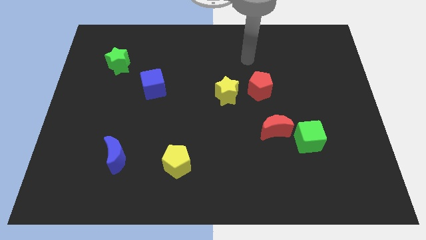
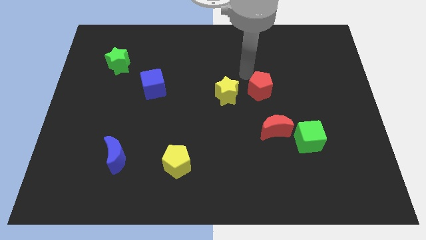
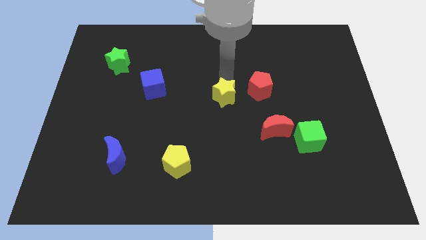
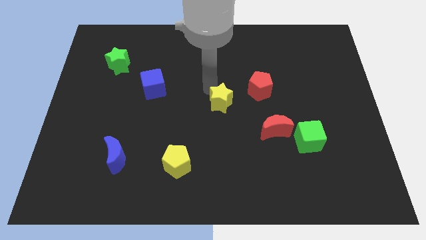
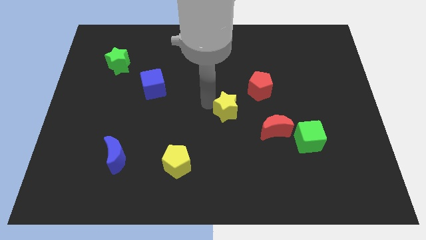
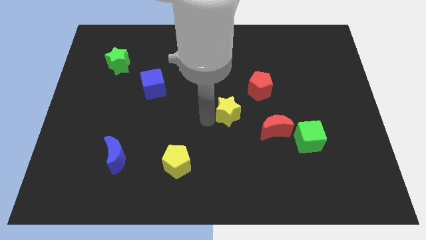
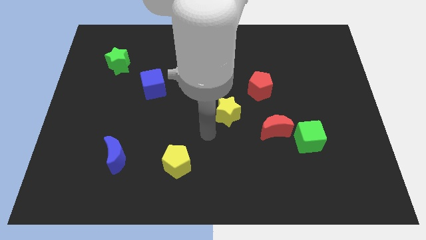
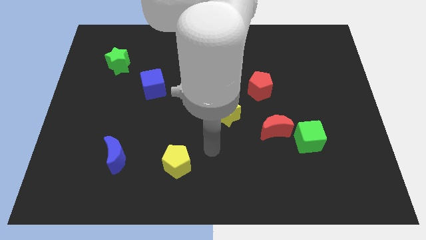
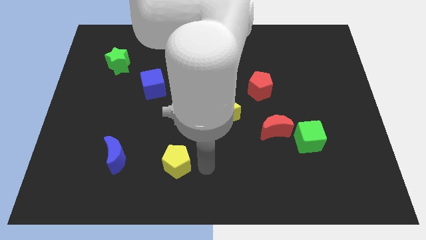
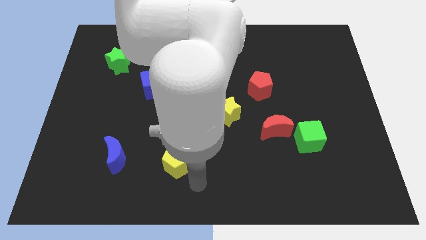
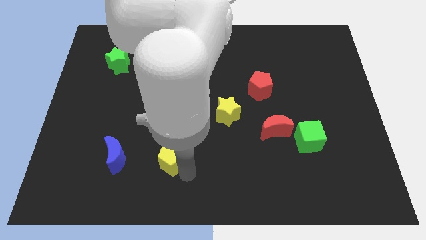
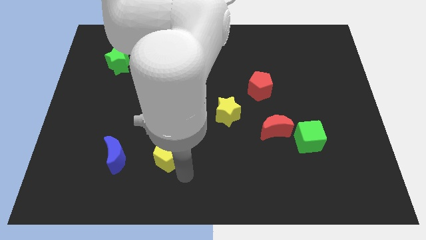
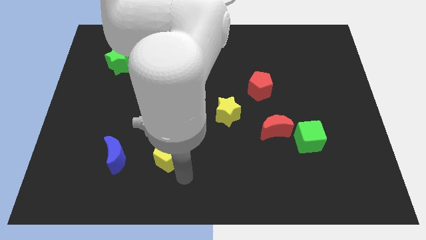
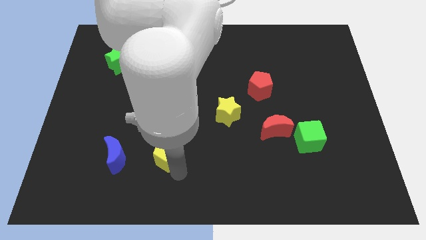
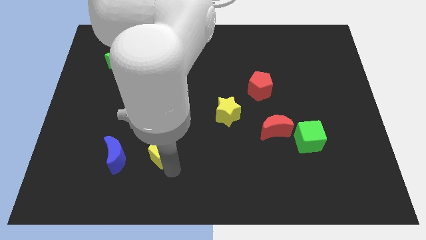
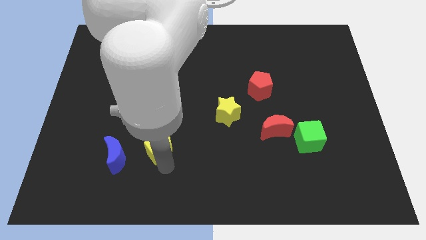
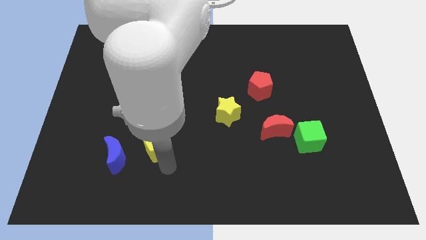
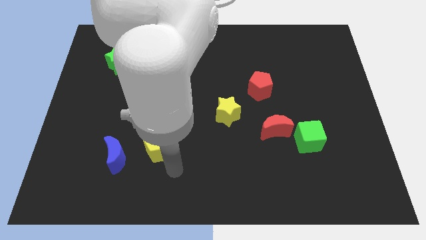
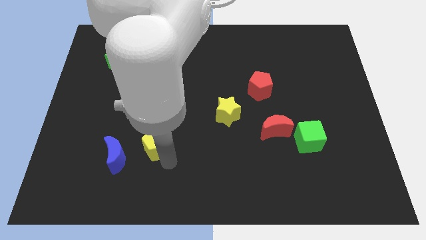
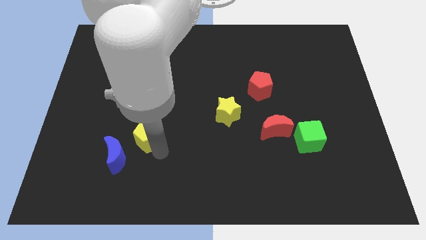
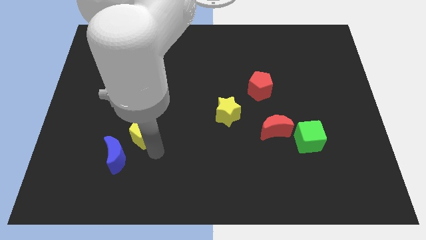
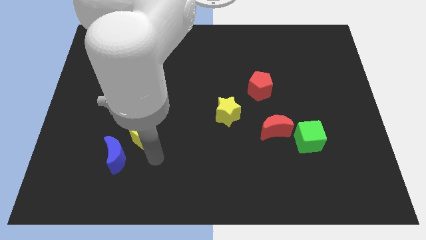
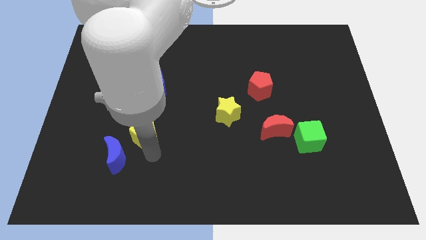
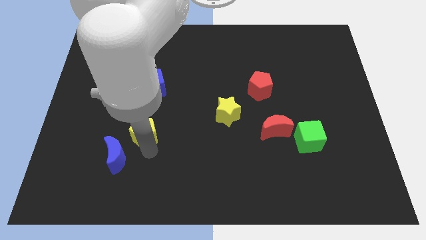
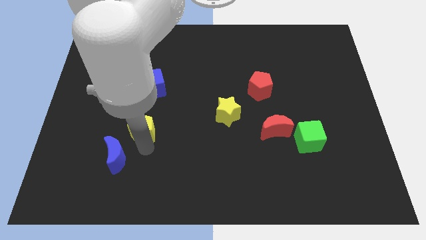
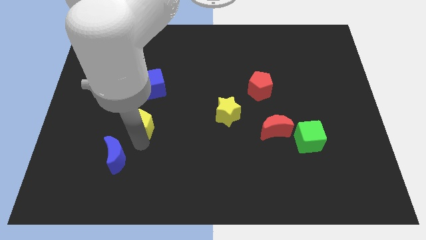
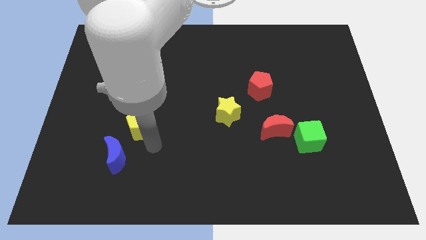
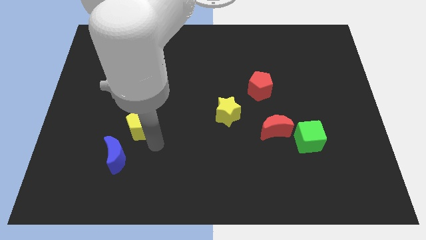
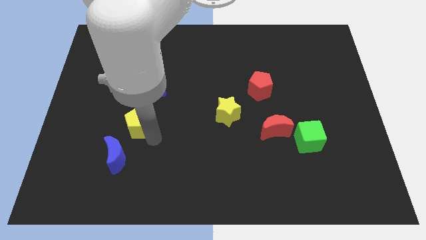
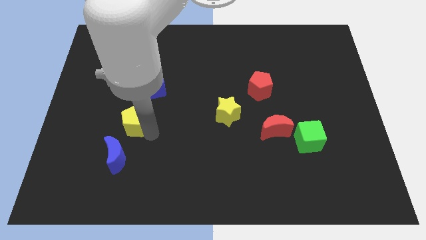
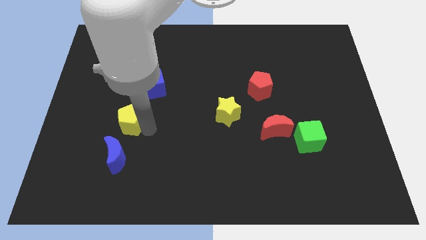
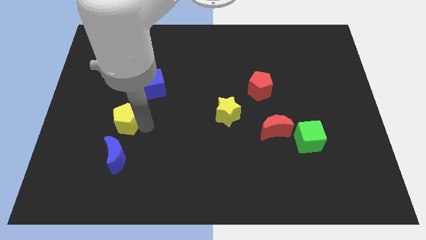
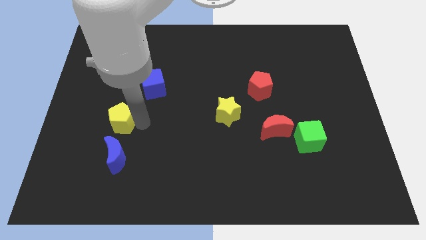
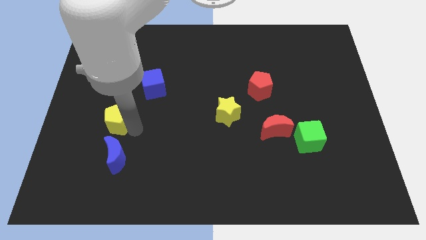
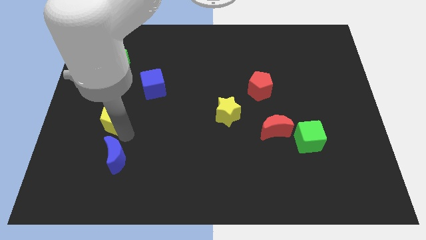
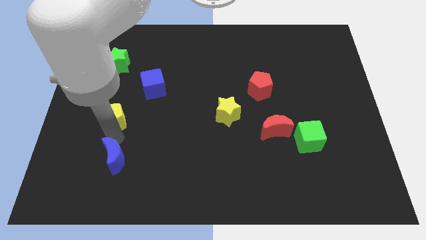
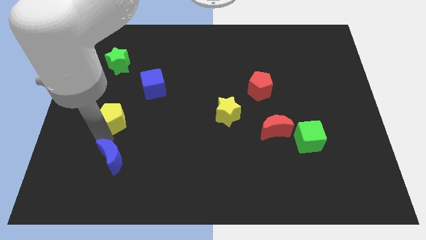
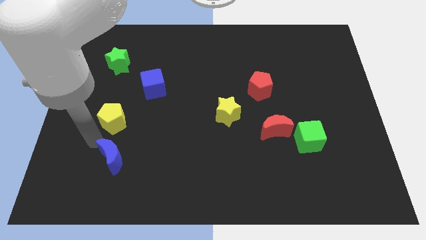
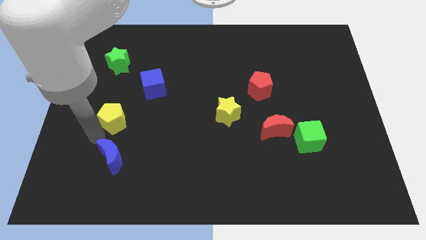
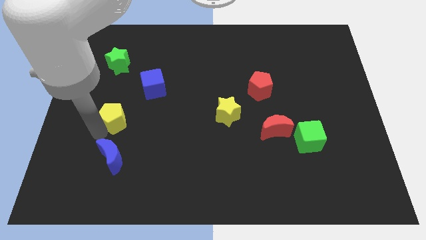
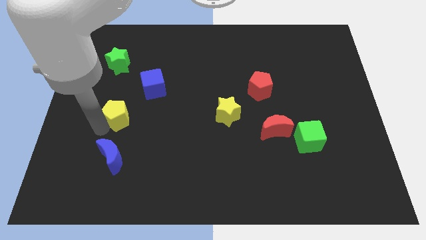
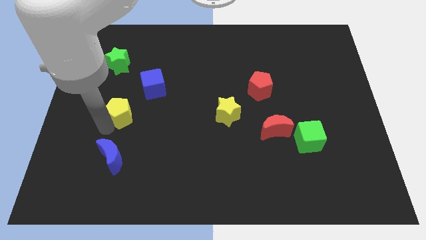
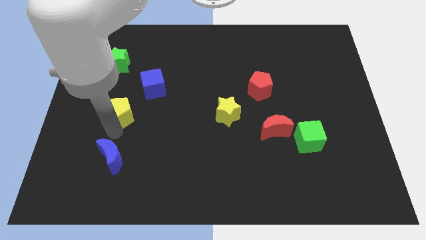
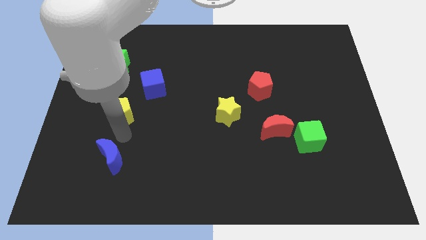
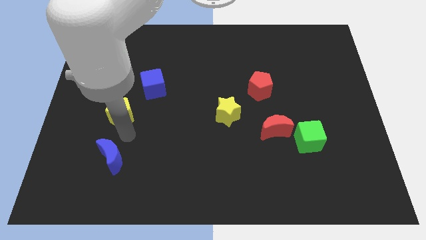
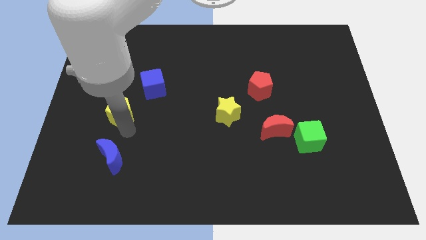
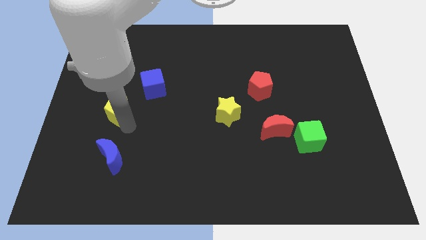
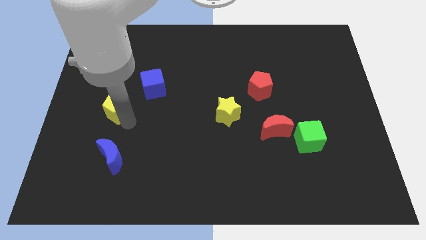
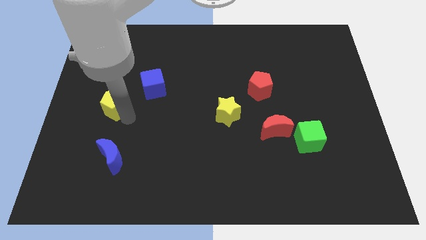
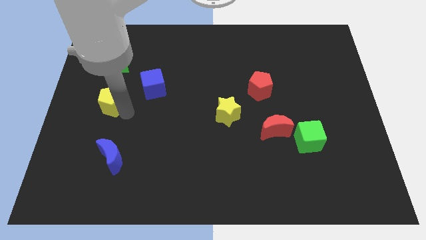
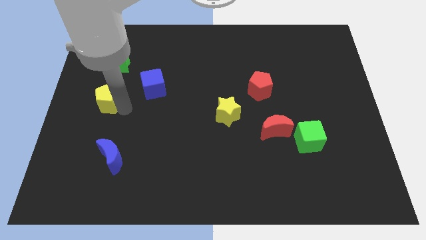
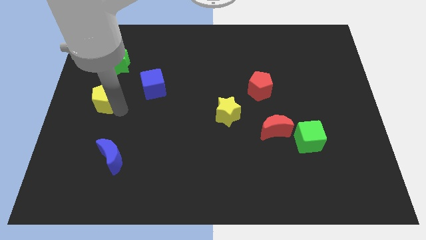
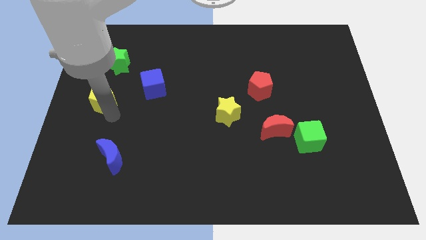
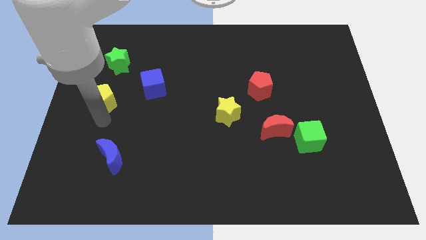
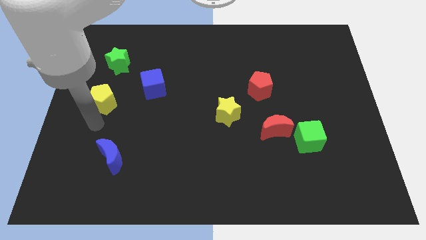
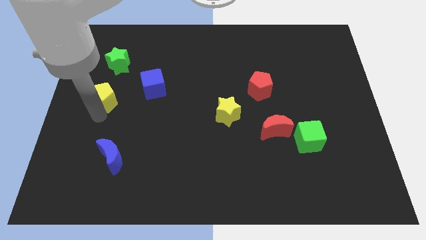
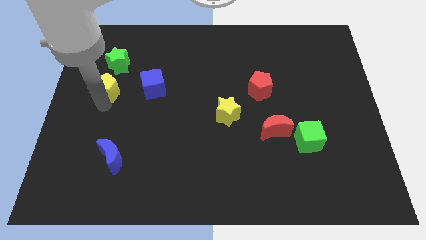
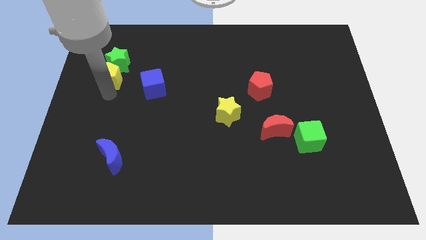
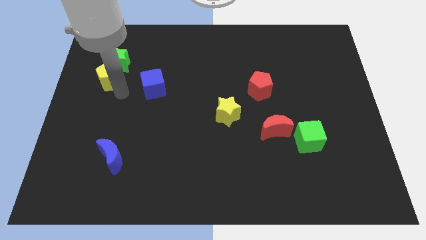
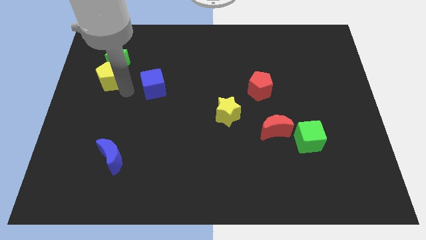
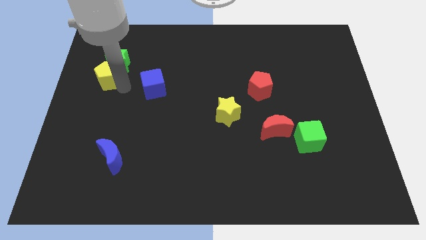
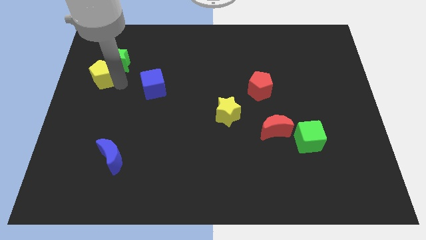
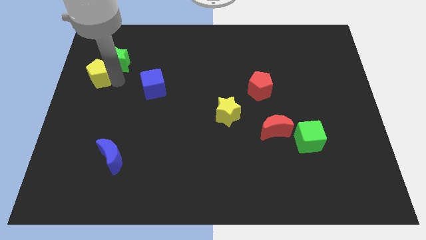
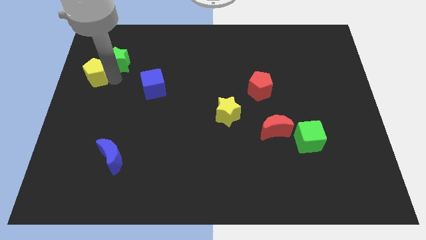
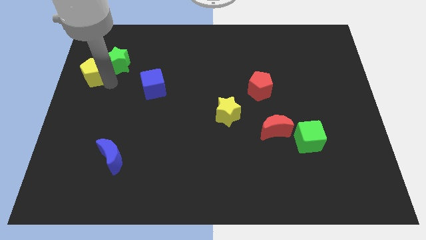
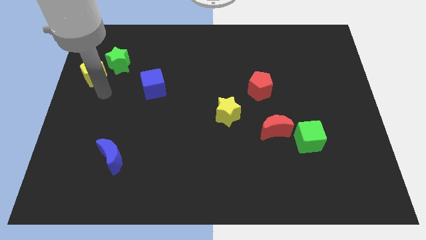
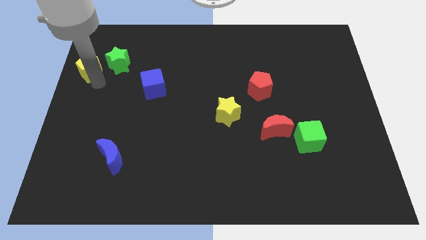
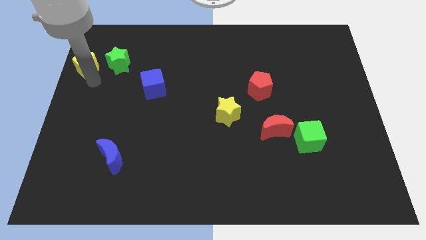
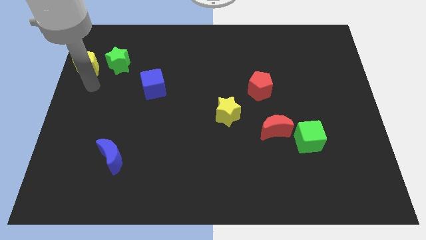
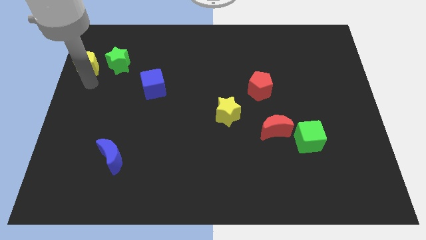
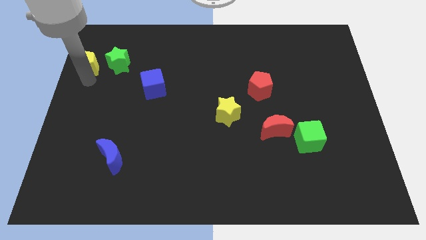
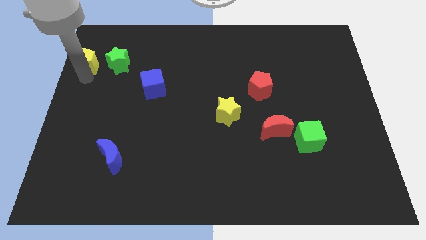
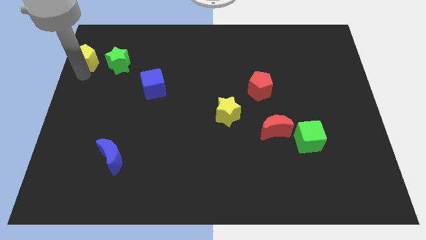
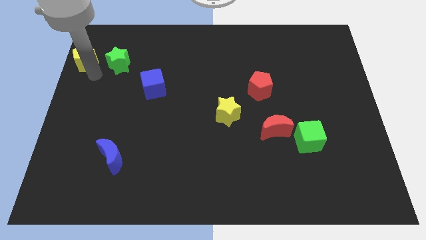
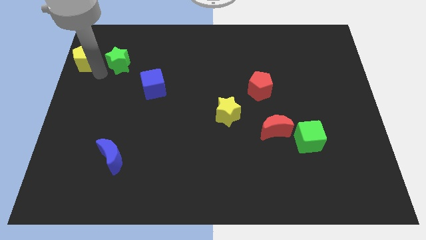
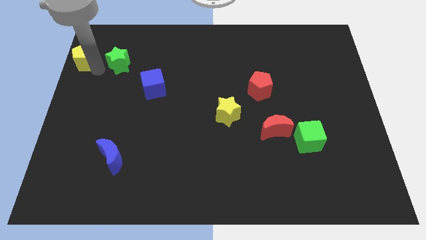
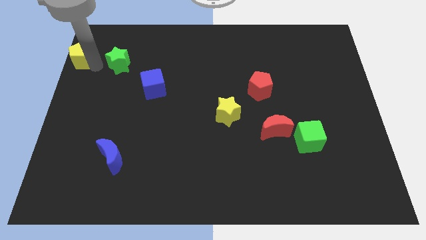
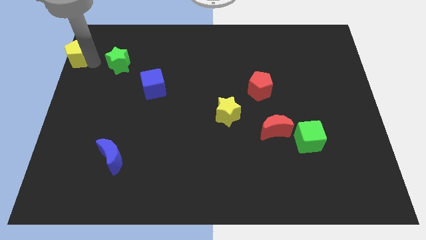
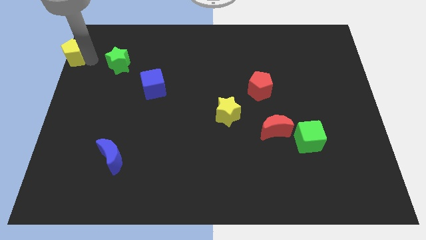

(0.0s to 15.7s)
push the yellow pentagon to the upper left corner
